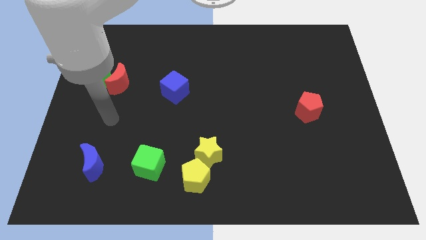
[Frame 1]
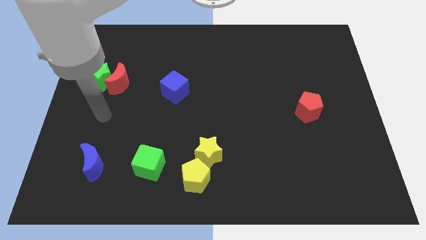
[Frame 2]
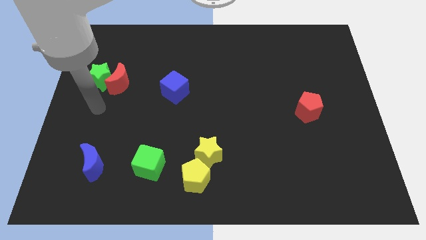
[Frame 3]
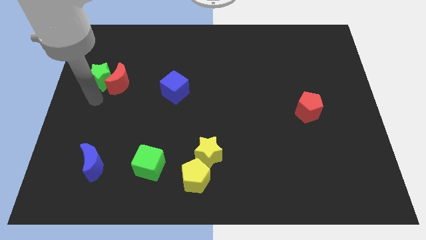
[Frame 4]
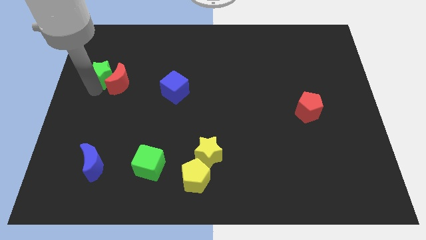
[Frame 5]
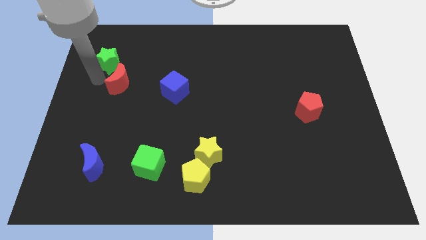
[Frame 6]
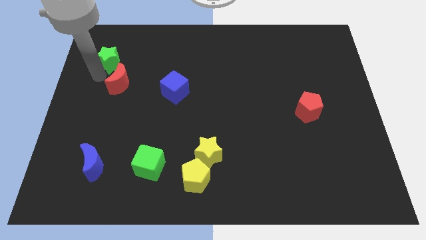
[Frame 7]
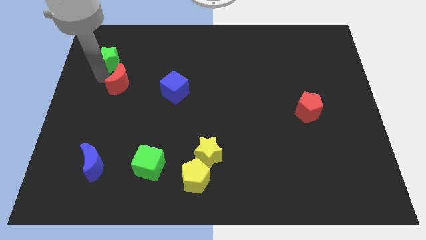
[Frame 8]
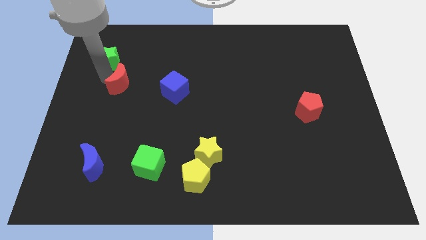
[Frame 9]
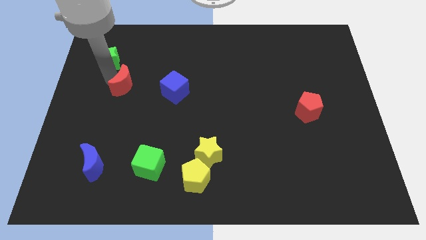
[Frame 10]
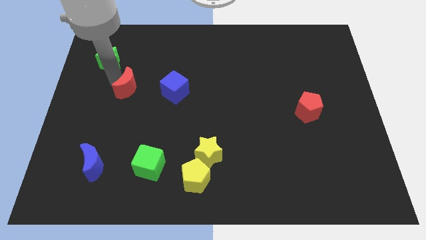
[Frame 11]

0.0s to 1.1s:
pull the red moon apart from the green star

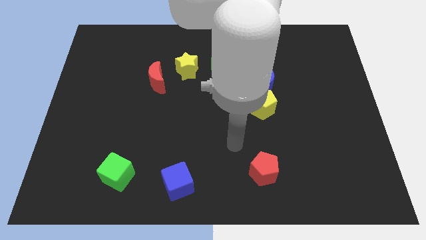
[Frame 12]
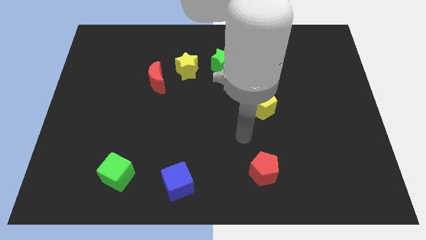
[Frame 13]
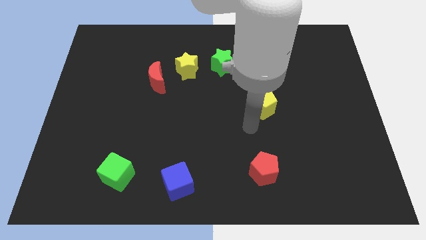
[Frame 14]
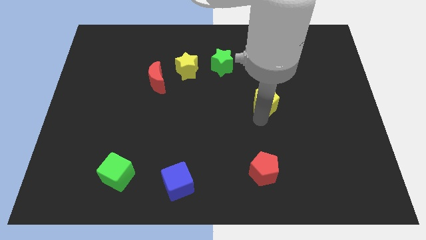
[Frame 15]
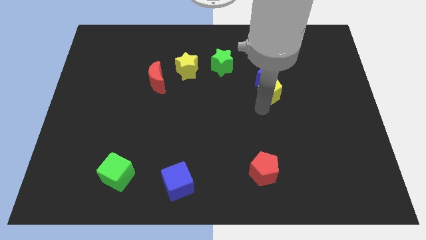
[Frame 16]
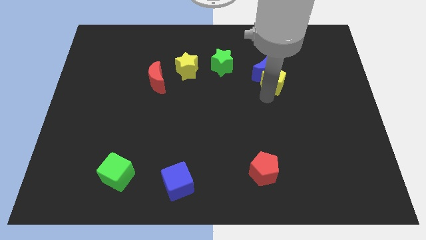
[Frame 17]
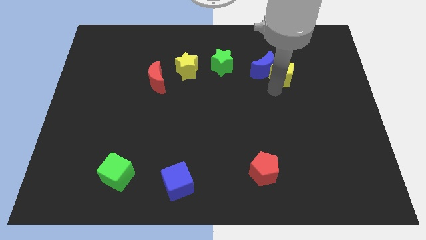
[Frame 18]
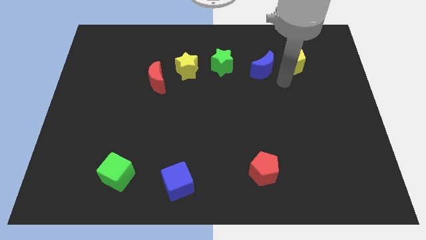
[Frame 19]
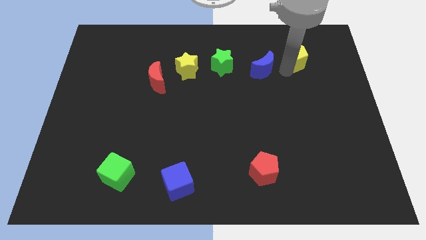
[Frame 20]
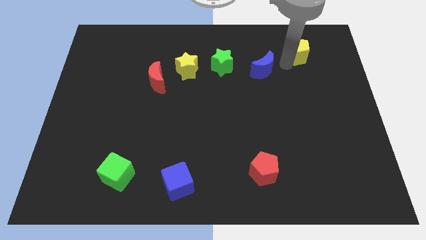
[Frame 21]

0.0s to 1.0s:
pull the blue moon apart from the yellow pentagon

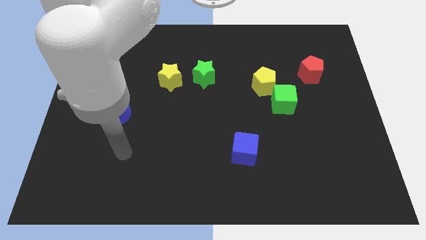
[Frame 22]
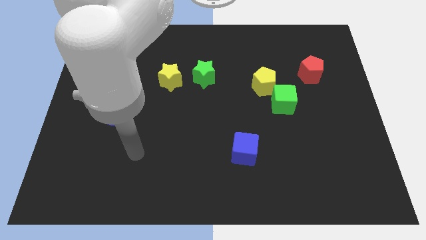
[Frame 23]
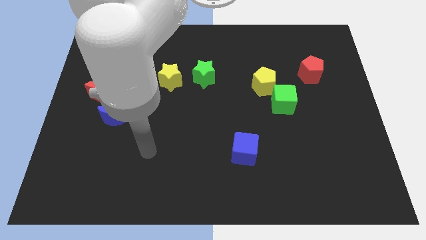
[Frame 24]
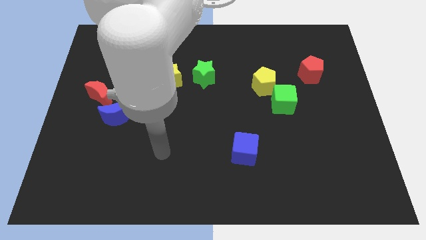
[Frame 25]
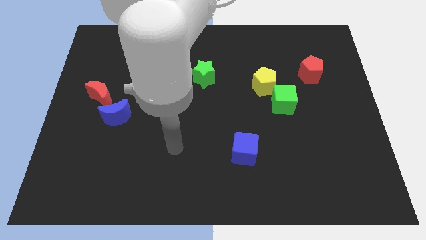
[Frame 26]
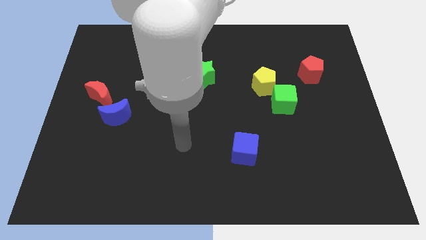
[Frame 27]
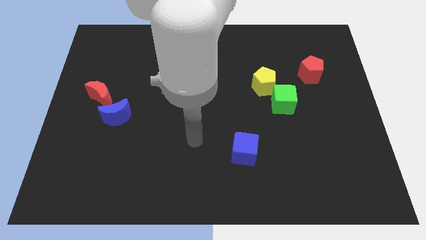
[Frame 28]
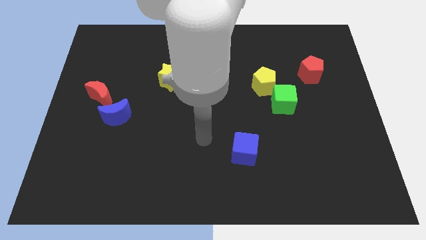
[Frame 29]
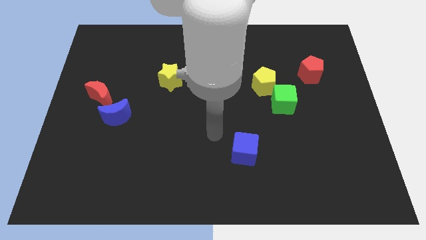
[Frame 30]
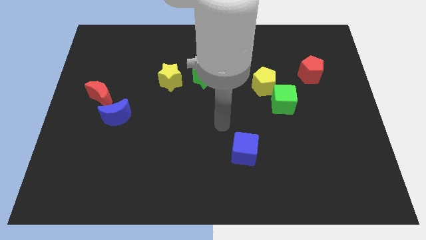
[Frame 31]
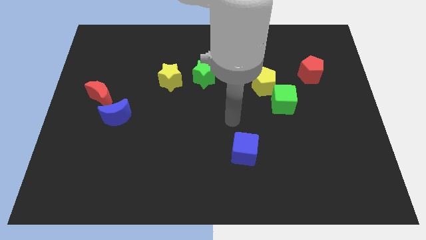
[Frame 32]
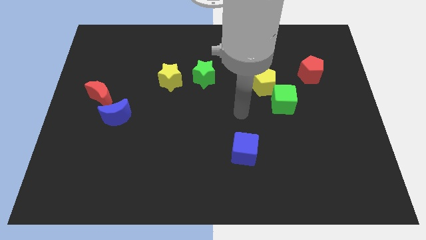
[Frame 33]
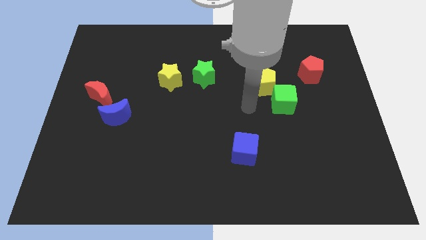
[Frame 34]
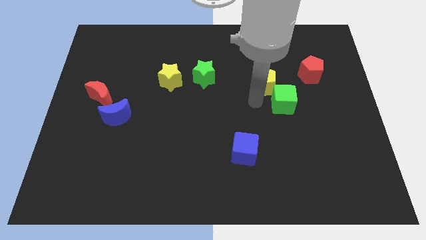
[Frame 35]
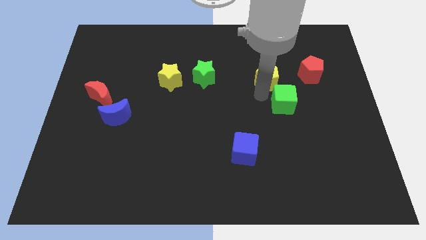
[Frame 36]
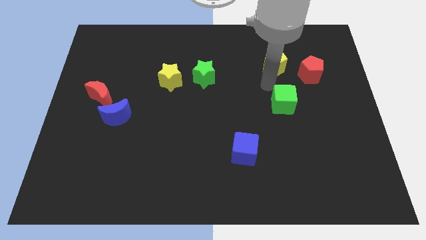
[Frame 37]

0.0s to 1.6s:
pull the green cube apart from the yellow pentagon

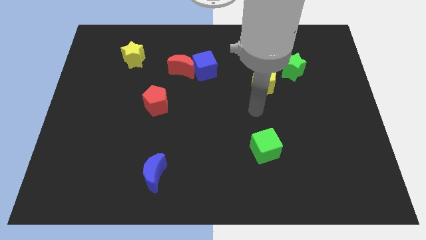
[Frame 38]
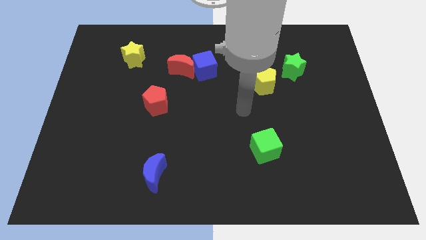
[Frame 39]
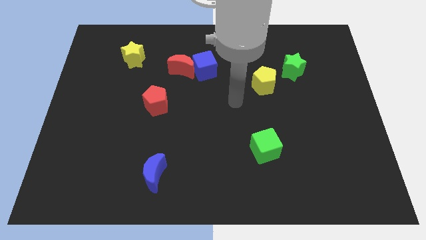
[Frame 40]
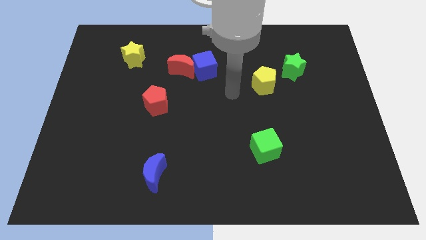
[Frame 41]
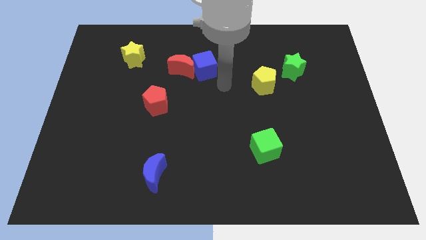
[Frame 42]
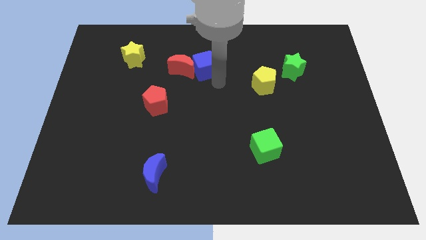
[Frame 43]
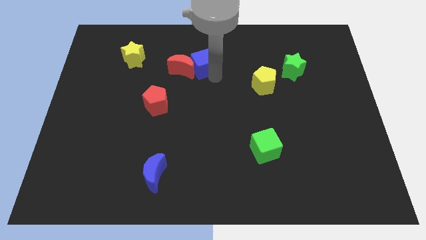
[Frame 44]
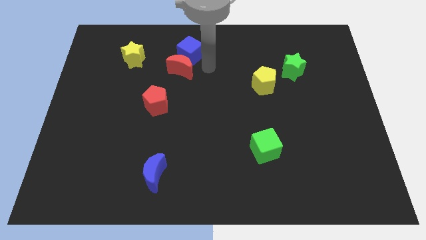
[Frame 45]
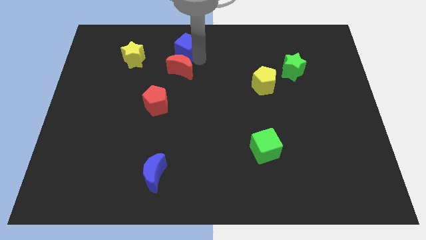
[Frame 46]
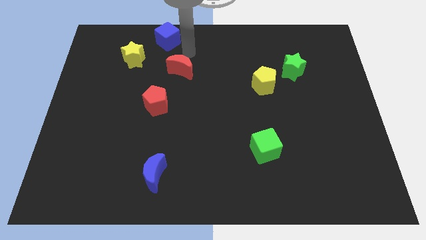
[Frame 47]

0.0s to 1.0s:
separate the red moon from the blue cube

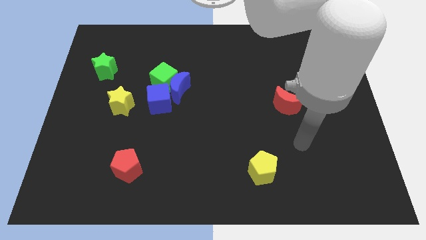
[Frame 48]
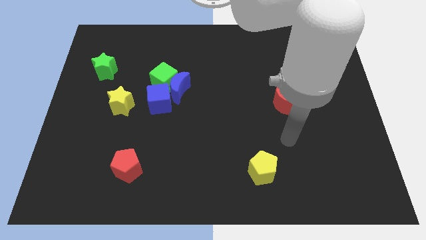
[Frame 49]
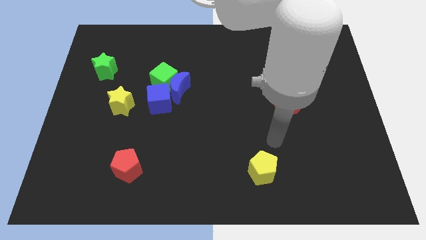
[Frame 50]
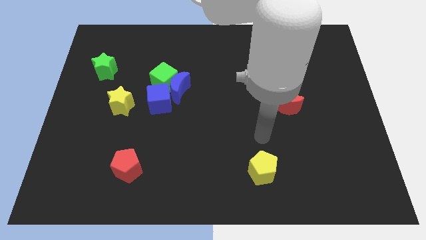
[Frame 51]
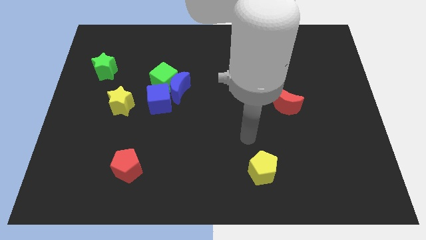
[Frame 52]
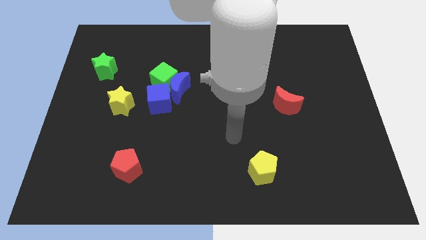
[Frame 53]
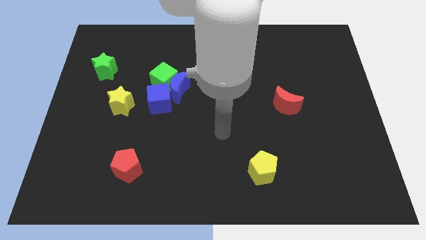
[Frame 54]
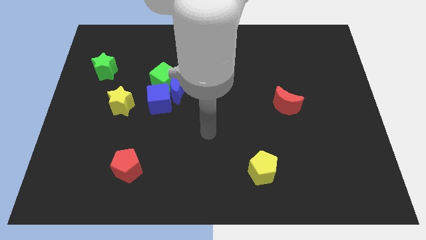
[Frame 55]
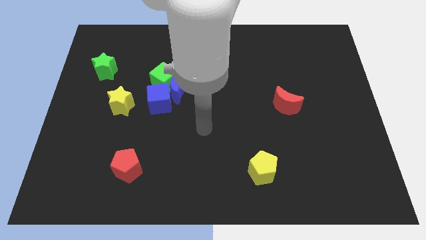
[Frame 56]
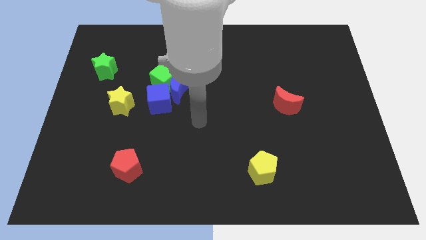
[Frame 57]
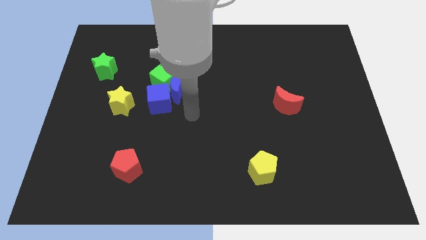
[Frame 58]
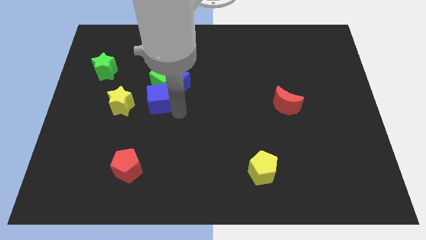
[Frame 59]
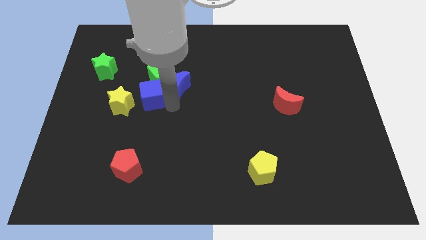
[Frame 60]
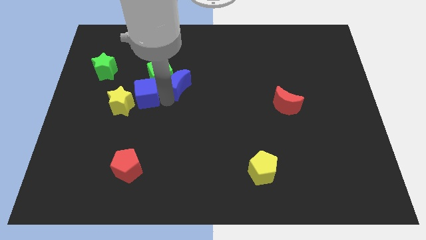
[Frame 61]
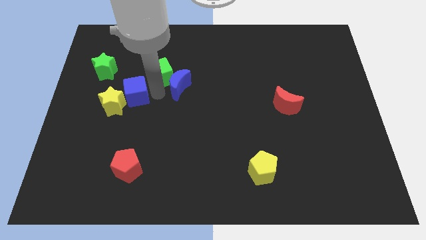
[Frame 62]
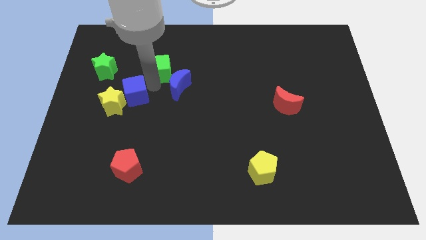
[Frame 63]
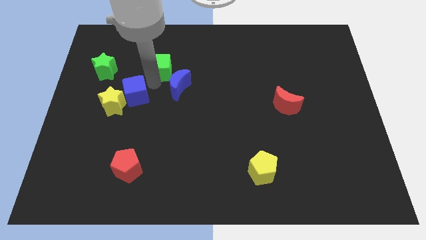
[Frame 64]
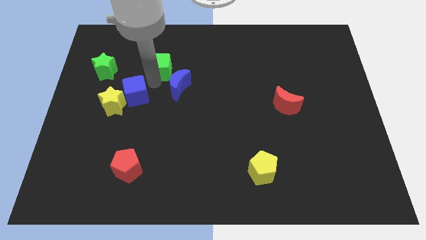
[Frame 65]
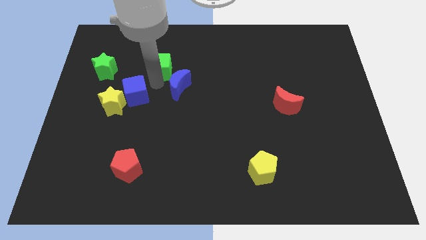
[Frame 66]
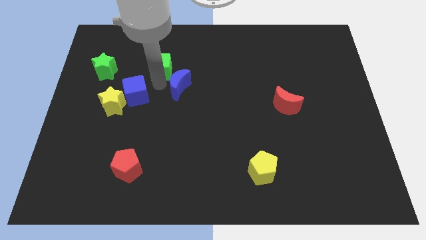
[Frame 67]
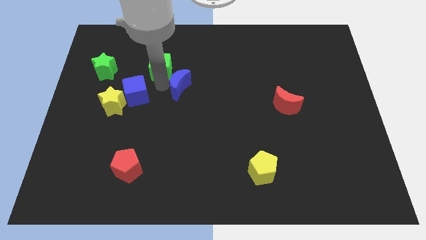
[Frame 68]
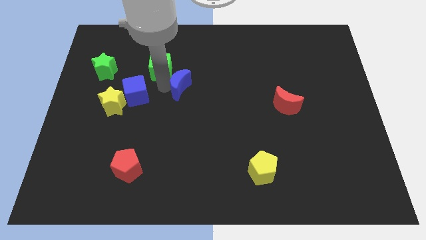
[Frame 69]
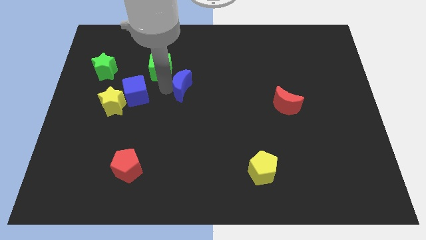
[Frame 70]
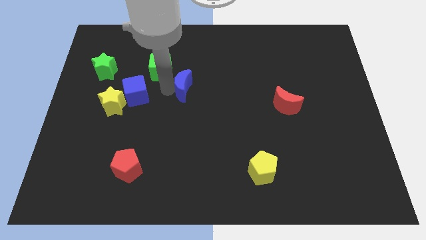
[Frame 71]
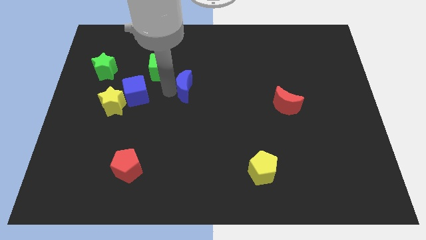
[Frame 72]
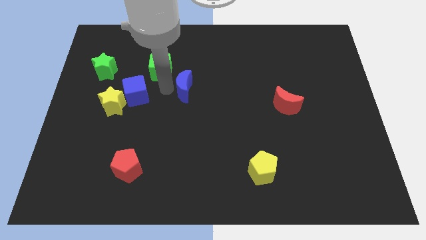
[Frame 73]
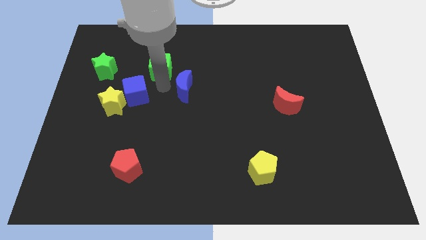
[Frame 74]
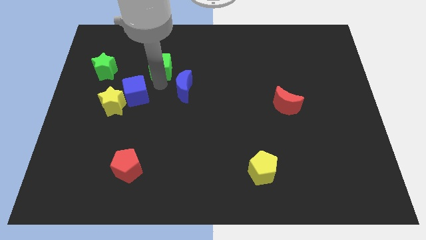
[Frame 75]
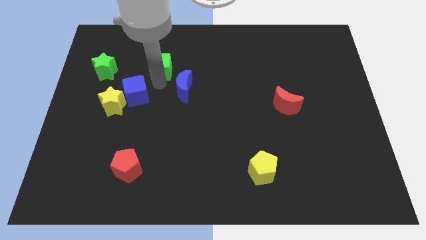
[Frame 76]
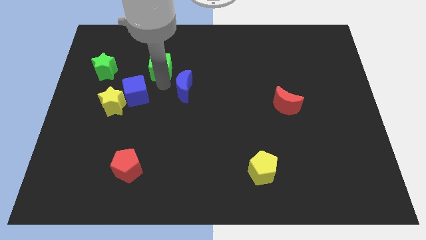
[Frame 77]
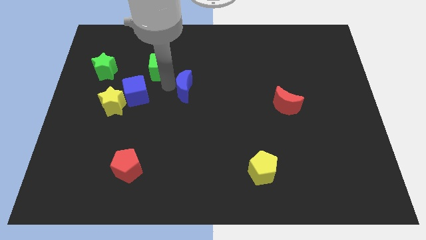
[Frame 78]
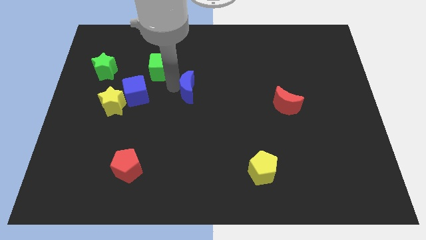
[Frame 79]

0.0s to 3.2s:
move the blue moon away from the green cube and blue cube

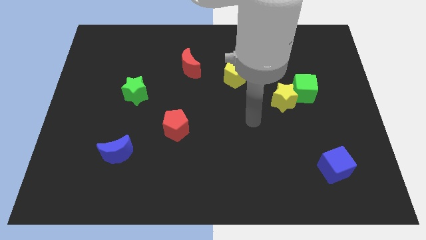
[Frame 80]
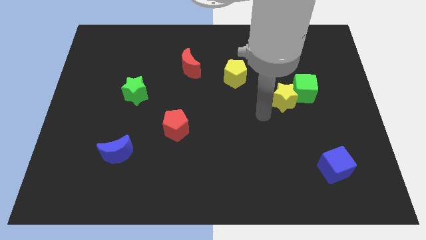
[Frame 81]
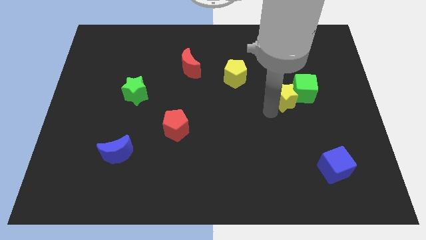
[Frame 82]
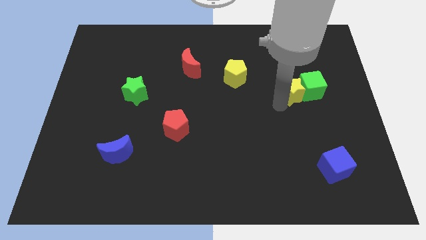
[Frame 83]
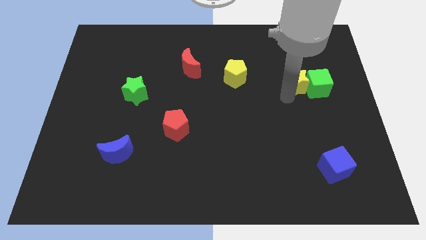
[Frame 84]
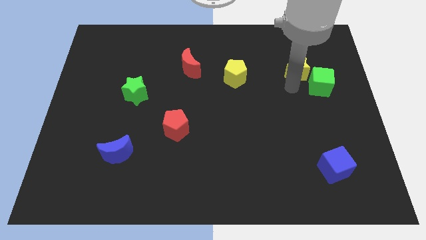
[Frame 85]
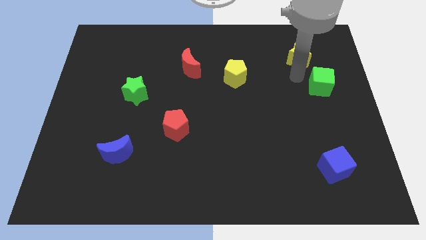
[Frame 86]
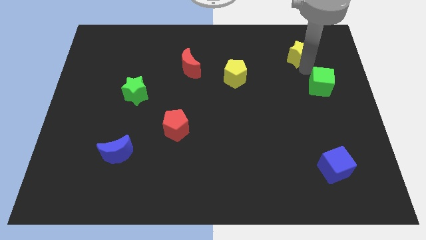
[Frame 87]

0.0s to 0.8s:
pull the green cube apart from the yellow star

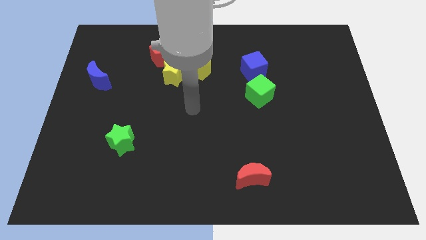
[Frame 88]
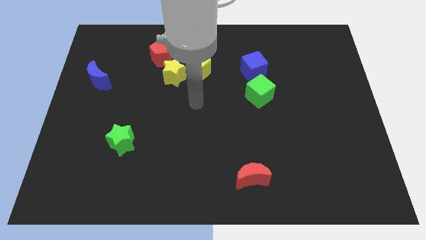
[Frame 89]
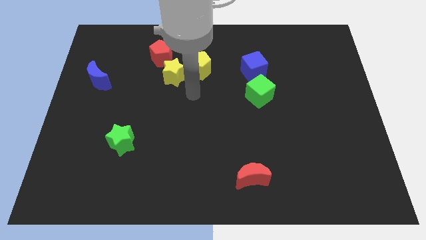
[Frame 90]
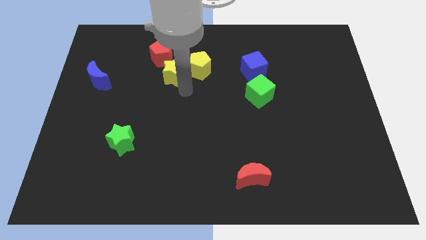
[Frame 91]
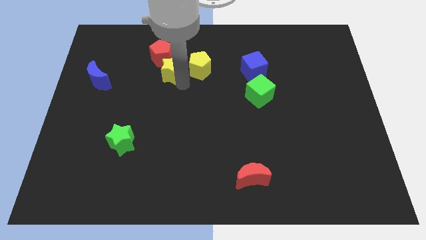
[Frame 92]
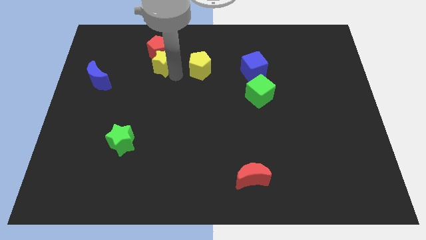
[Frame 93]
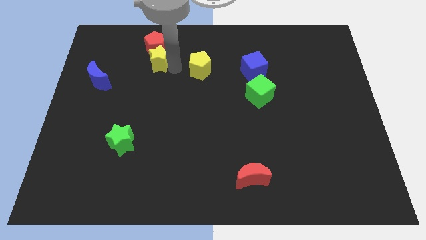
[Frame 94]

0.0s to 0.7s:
separate the yellow pentagon from the yellow star
